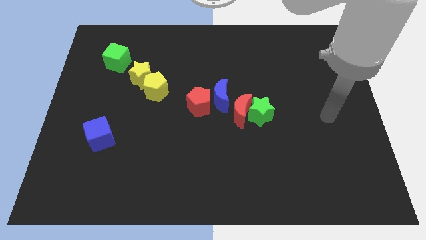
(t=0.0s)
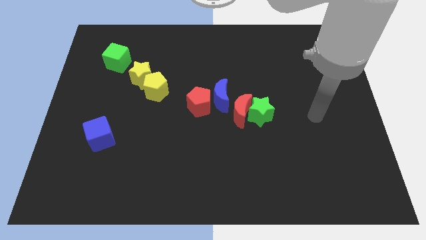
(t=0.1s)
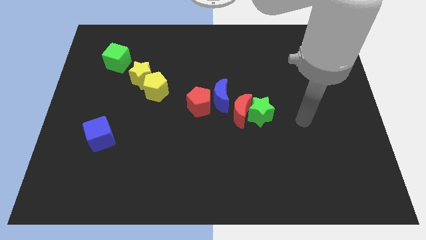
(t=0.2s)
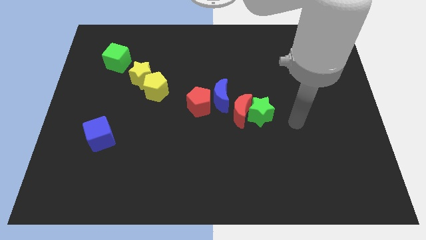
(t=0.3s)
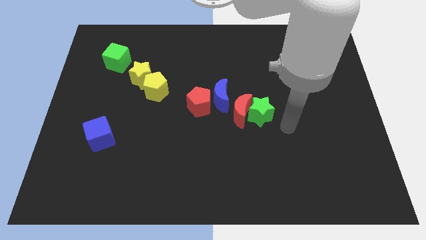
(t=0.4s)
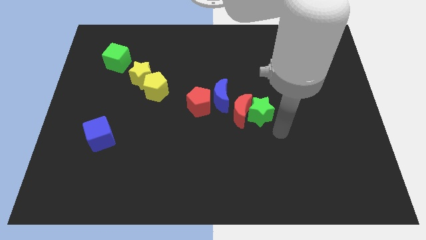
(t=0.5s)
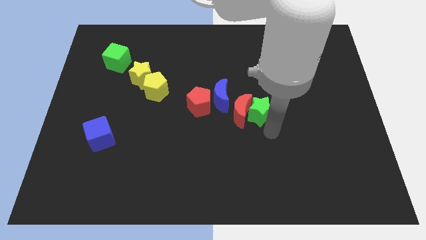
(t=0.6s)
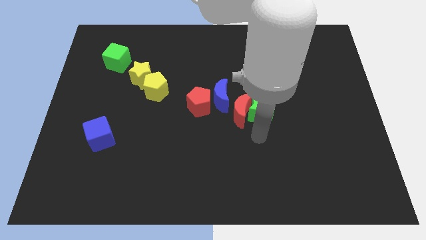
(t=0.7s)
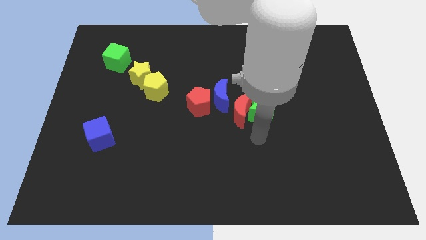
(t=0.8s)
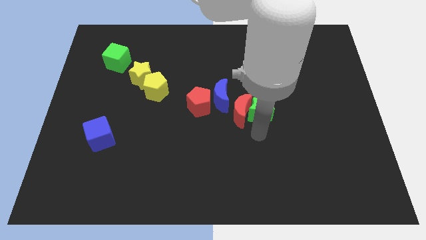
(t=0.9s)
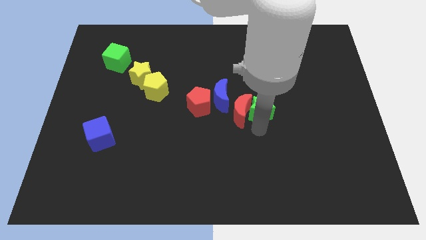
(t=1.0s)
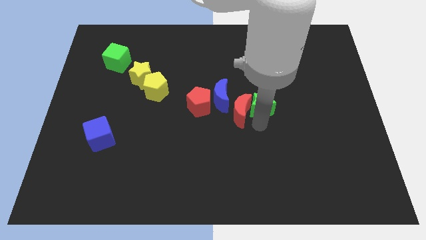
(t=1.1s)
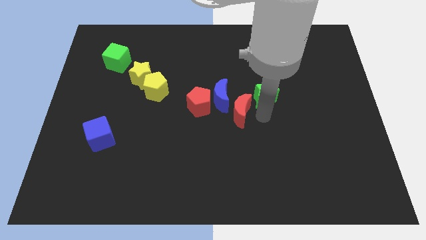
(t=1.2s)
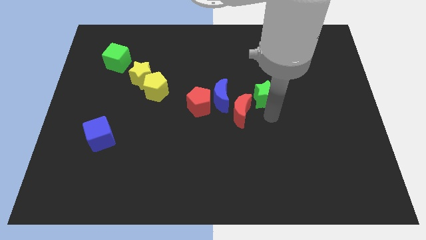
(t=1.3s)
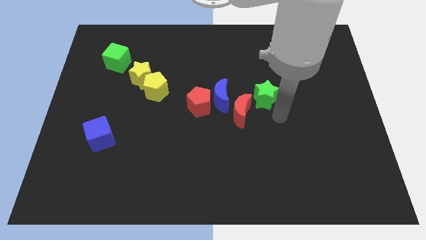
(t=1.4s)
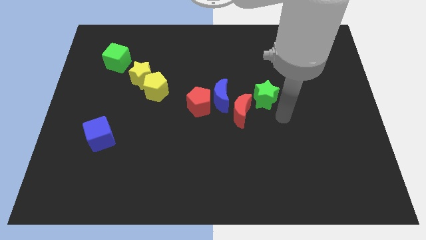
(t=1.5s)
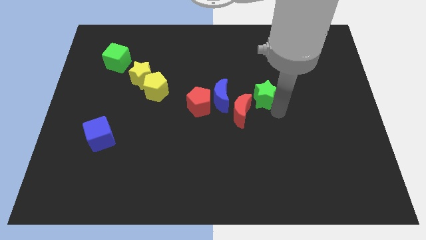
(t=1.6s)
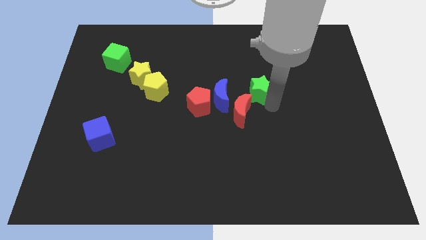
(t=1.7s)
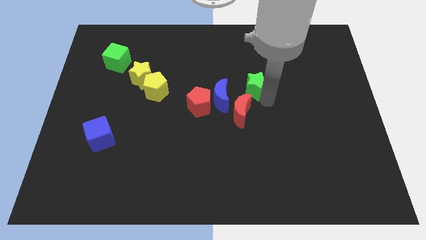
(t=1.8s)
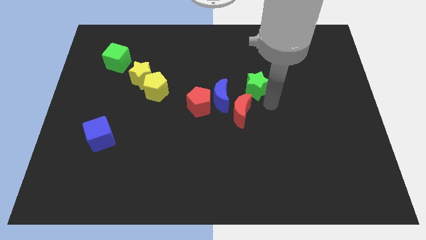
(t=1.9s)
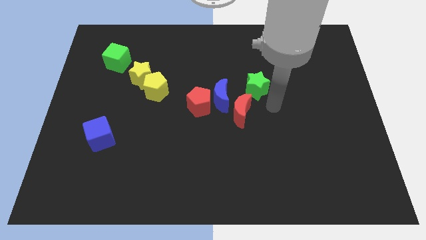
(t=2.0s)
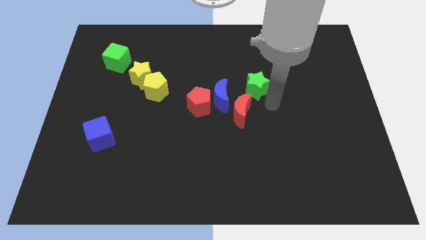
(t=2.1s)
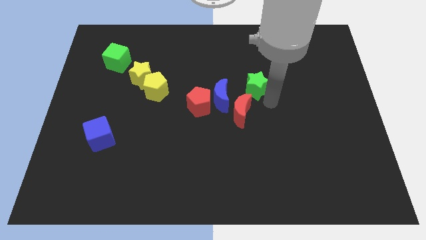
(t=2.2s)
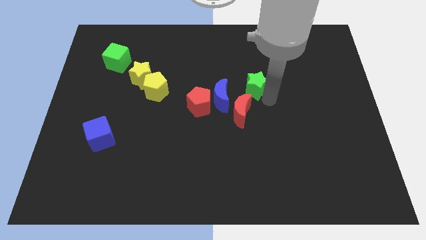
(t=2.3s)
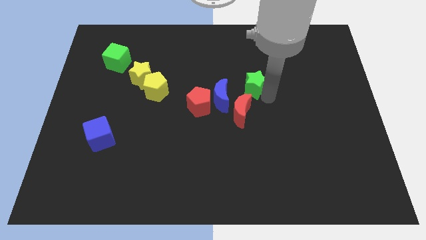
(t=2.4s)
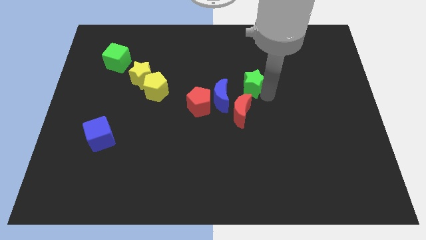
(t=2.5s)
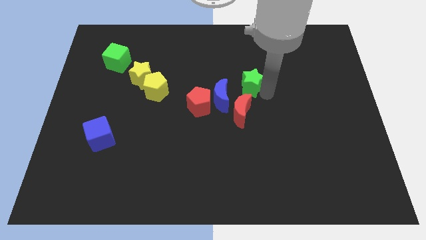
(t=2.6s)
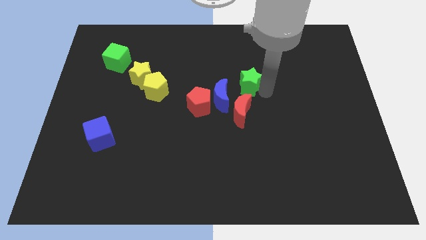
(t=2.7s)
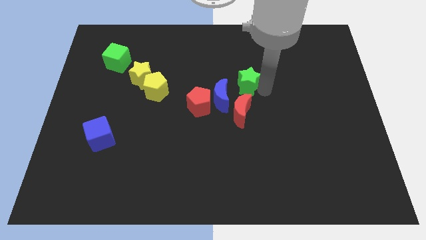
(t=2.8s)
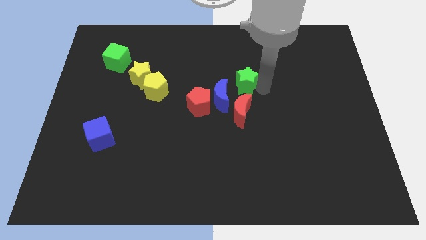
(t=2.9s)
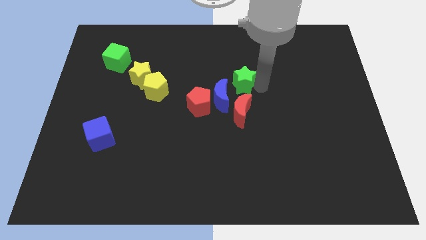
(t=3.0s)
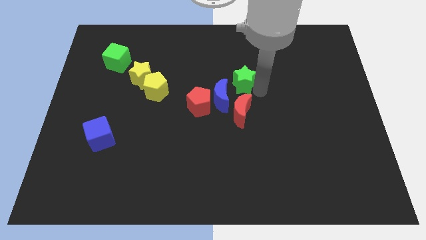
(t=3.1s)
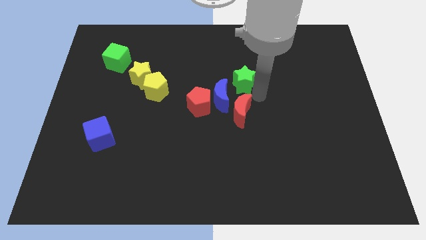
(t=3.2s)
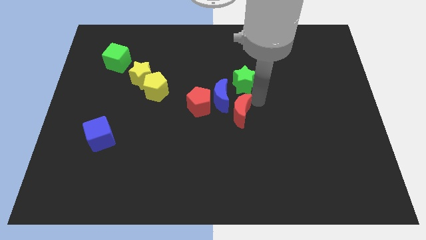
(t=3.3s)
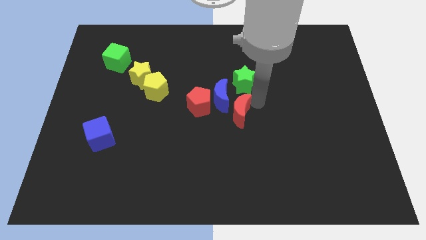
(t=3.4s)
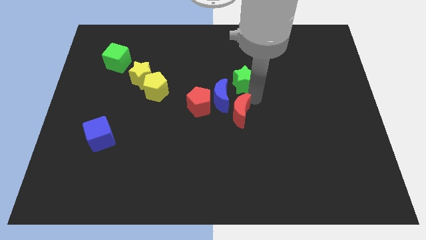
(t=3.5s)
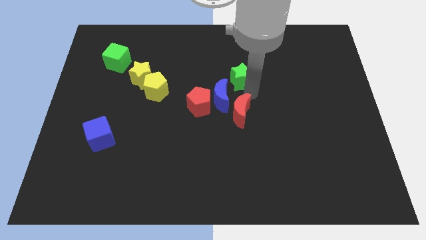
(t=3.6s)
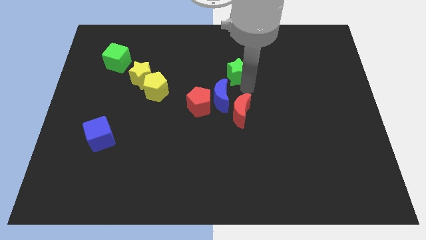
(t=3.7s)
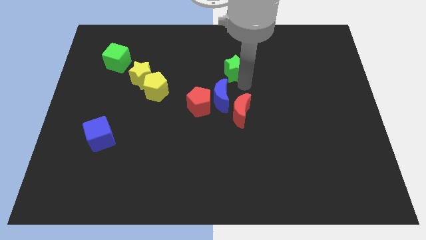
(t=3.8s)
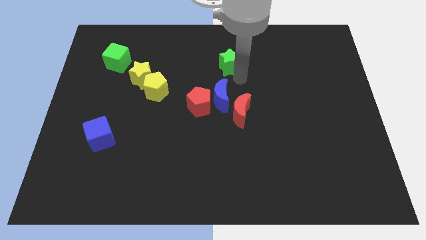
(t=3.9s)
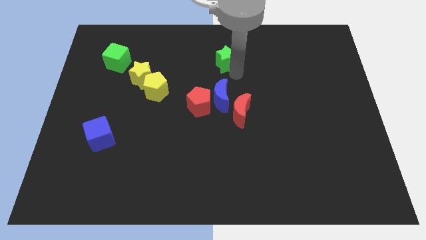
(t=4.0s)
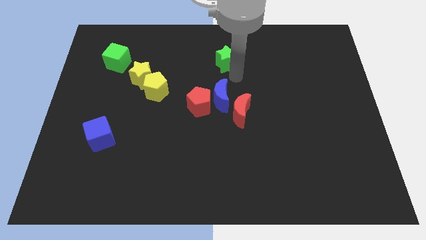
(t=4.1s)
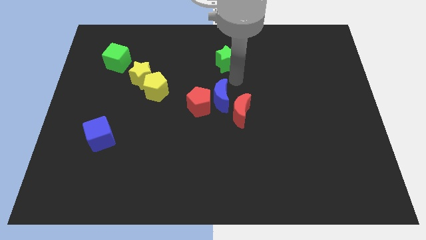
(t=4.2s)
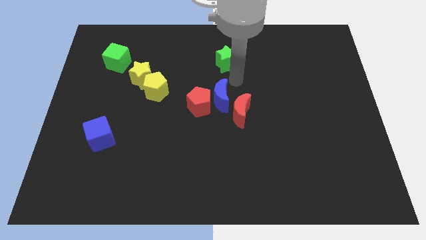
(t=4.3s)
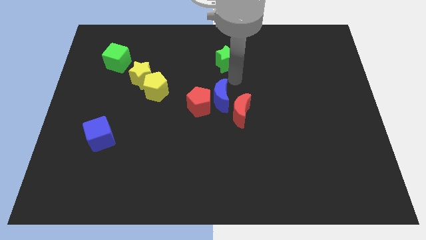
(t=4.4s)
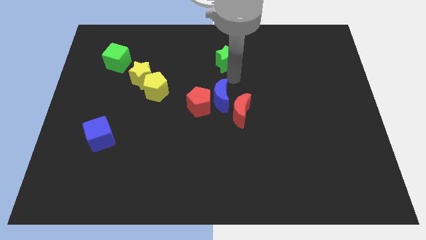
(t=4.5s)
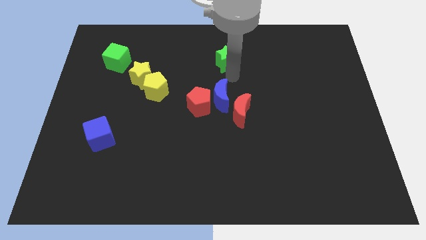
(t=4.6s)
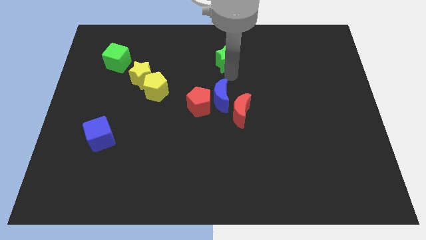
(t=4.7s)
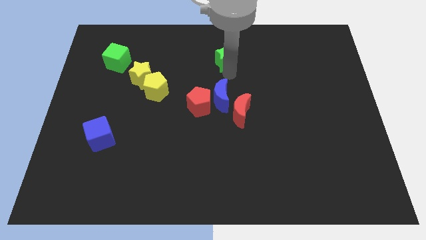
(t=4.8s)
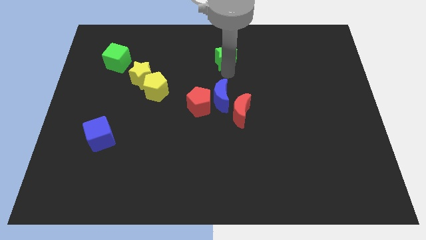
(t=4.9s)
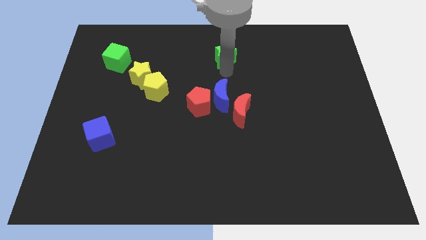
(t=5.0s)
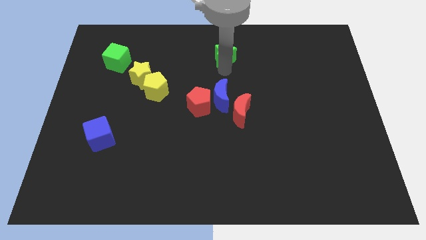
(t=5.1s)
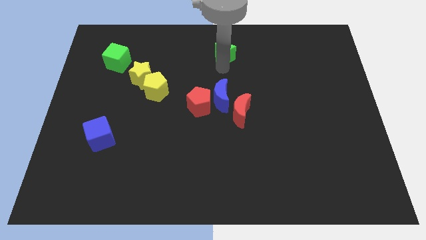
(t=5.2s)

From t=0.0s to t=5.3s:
move the green star to the towards your base

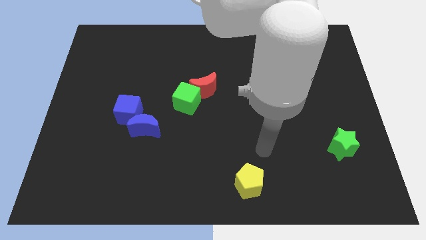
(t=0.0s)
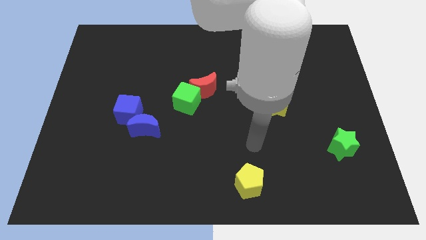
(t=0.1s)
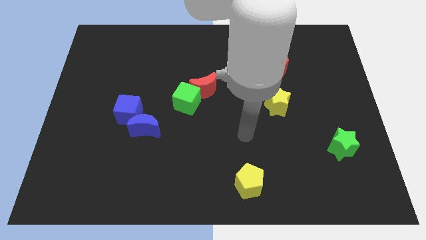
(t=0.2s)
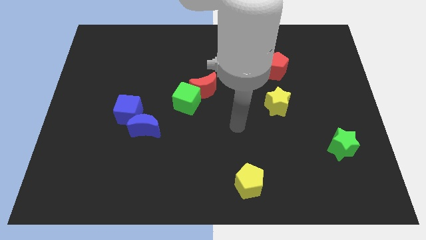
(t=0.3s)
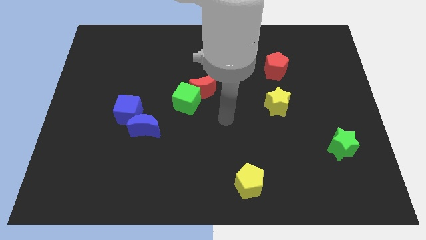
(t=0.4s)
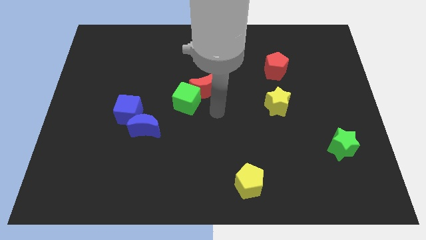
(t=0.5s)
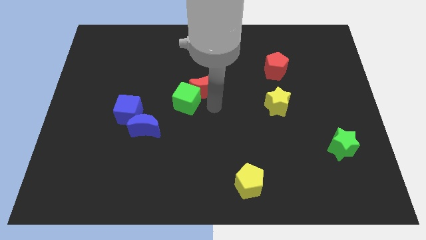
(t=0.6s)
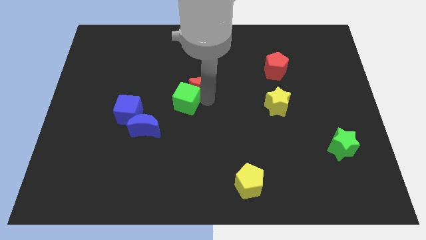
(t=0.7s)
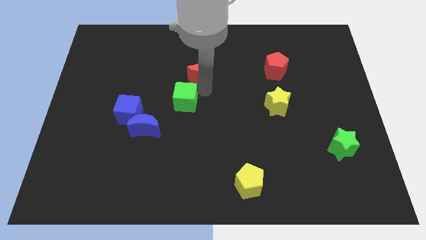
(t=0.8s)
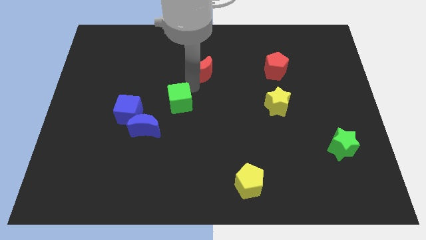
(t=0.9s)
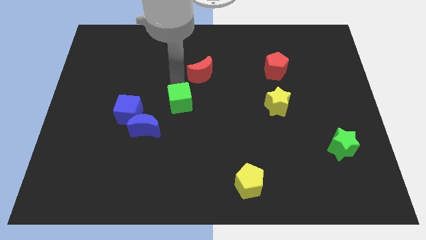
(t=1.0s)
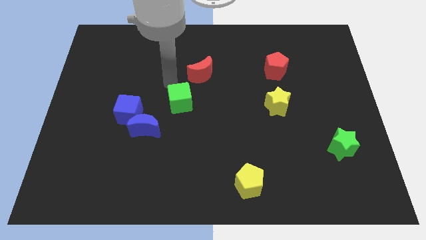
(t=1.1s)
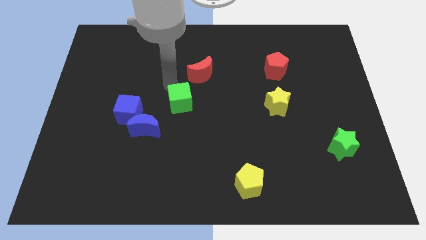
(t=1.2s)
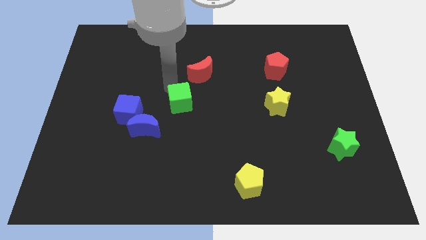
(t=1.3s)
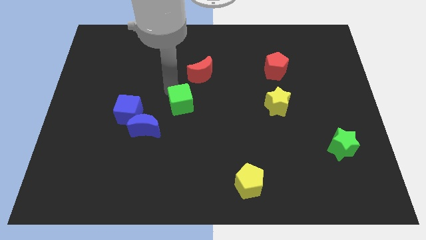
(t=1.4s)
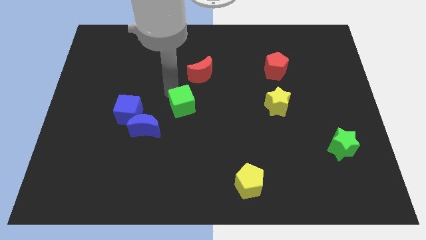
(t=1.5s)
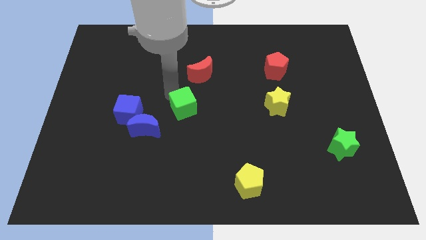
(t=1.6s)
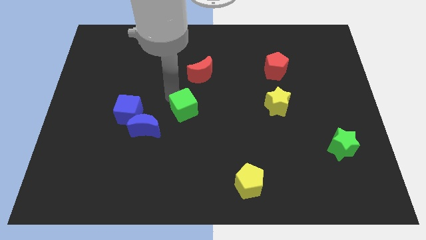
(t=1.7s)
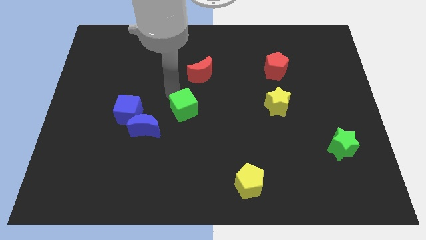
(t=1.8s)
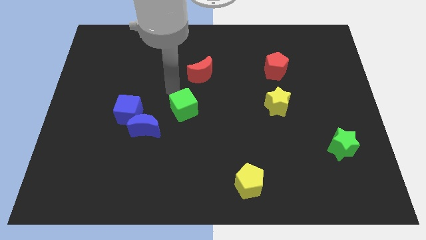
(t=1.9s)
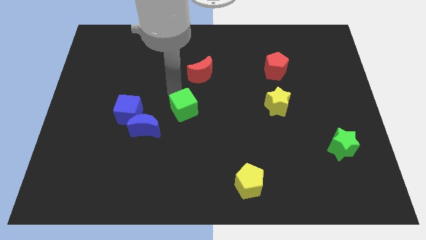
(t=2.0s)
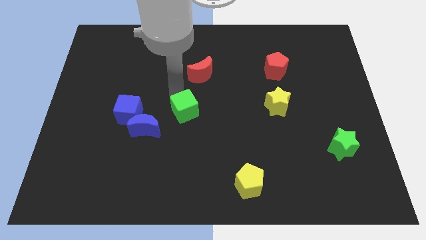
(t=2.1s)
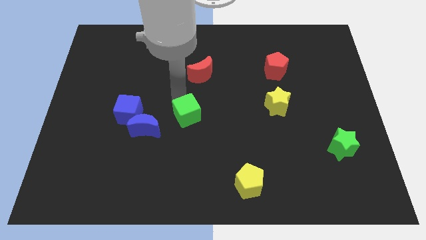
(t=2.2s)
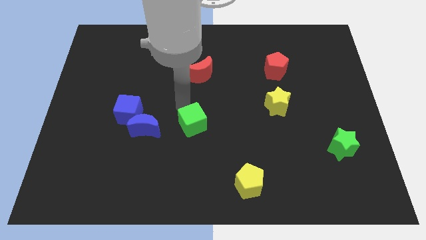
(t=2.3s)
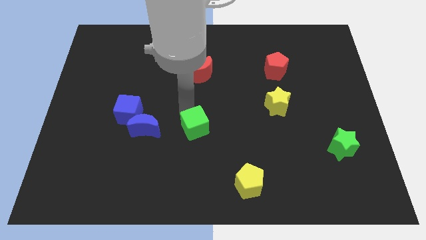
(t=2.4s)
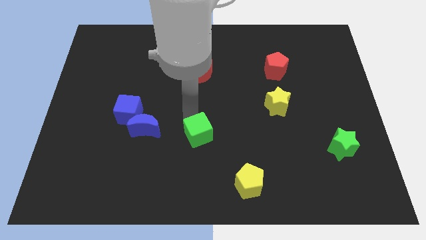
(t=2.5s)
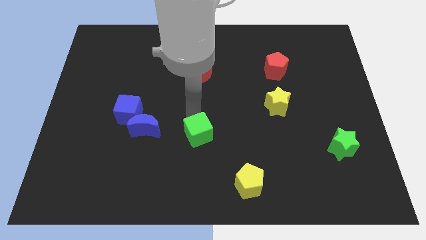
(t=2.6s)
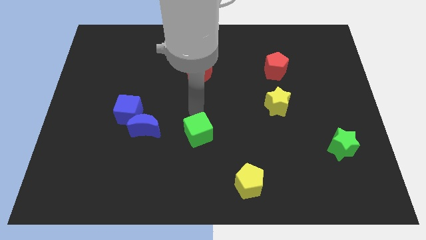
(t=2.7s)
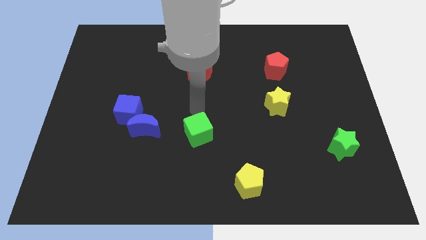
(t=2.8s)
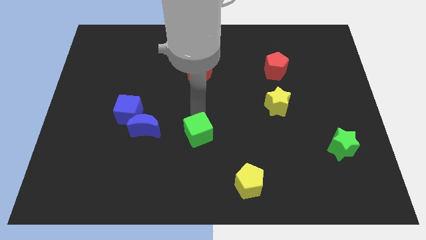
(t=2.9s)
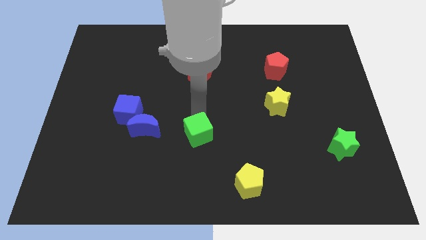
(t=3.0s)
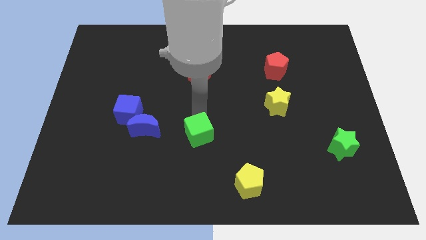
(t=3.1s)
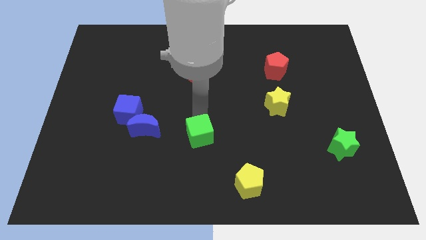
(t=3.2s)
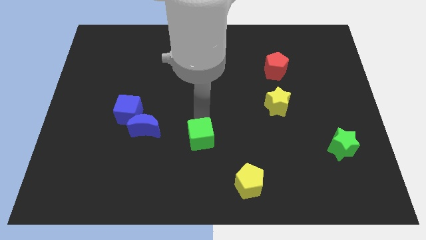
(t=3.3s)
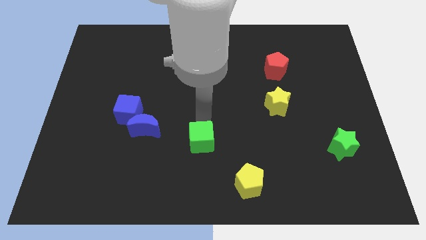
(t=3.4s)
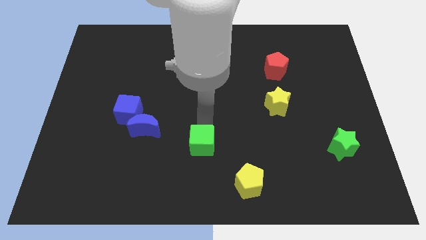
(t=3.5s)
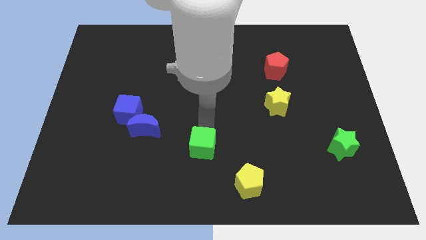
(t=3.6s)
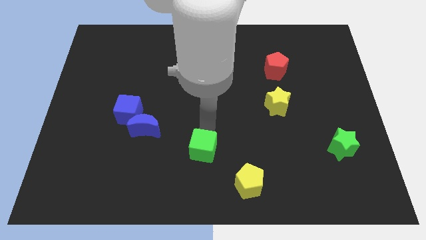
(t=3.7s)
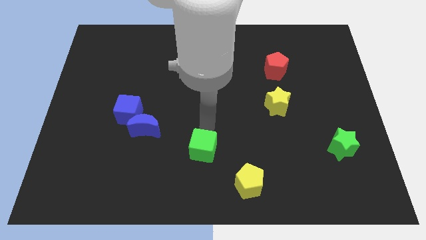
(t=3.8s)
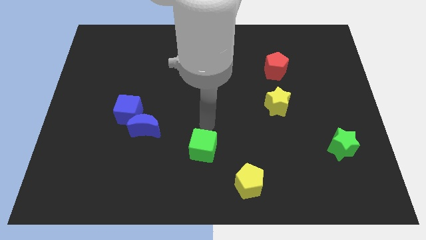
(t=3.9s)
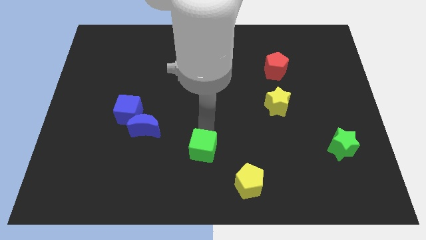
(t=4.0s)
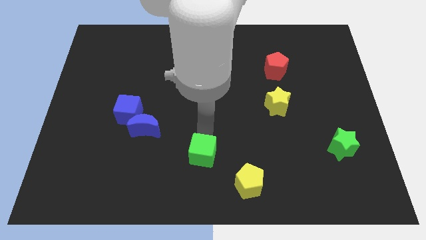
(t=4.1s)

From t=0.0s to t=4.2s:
put the green cube to the bottom side
